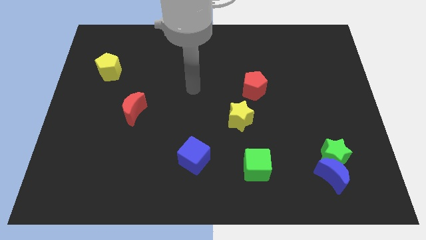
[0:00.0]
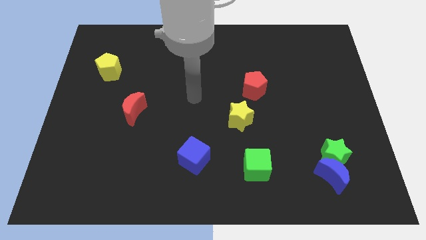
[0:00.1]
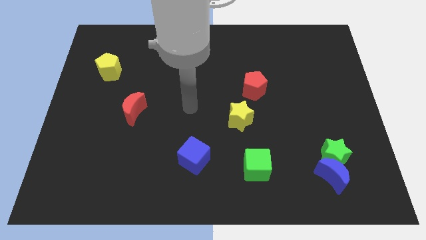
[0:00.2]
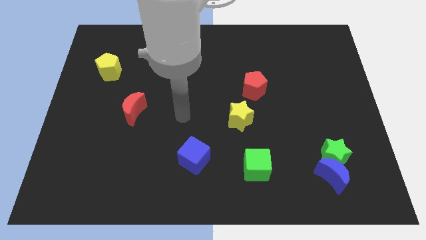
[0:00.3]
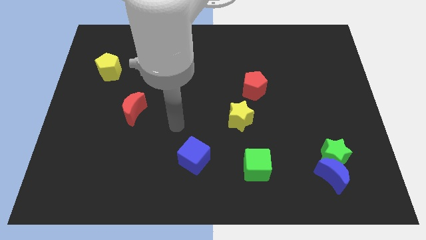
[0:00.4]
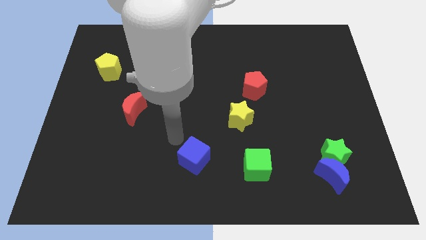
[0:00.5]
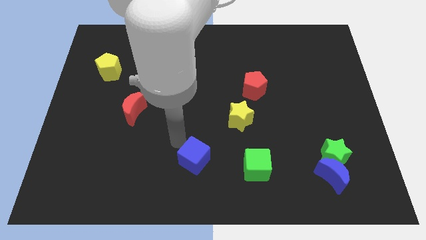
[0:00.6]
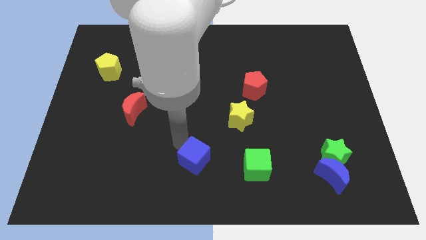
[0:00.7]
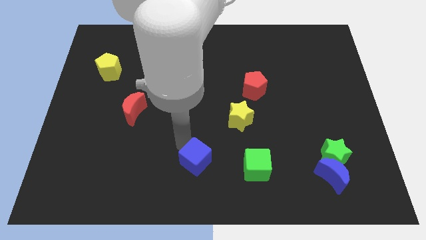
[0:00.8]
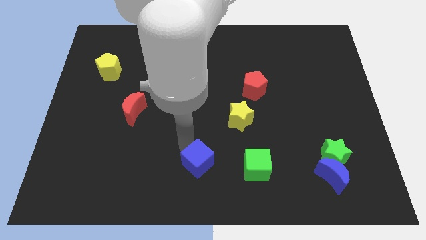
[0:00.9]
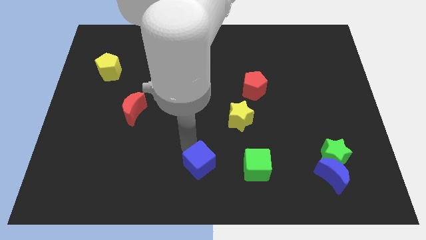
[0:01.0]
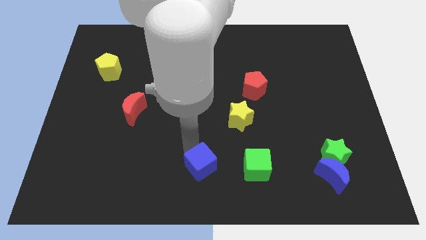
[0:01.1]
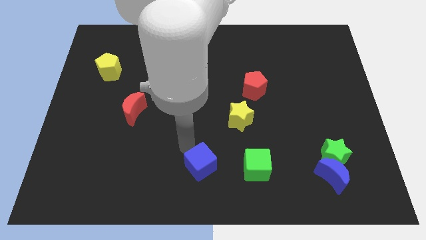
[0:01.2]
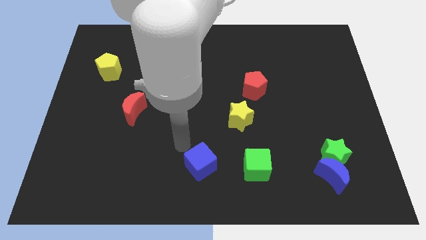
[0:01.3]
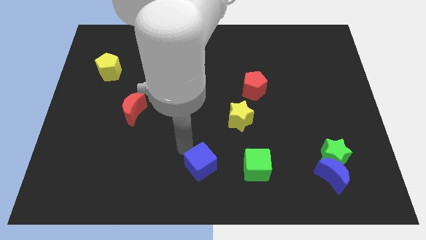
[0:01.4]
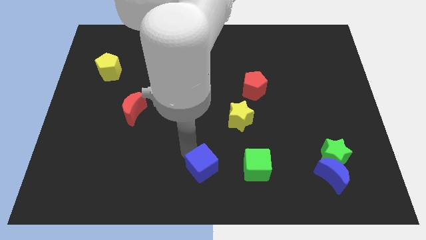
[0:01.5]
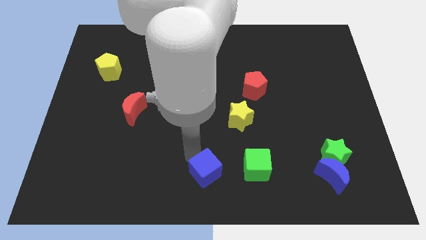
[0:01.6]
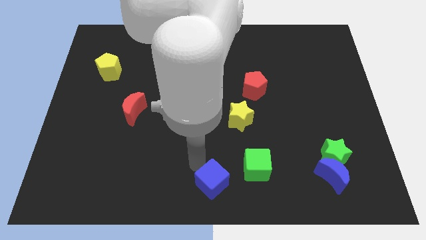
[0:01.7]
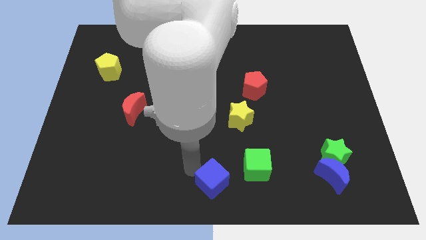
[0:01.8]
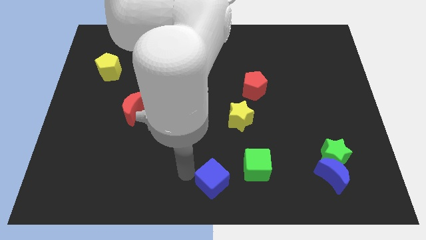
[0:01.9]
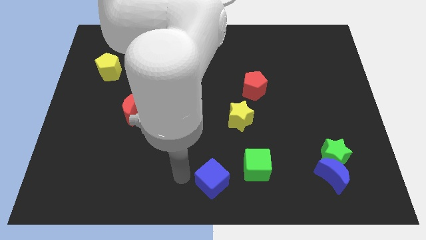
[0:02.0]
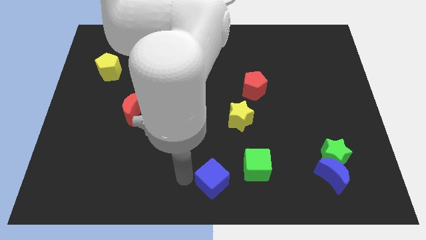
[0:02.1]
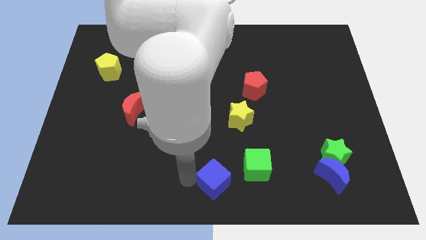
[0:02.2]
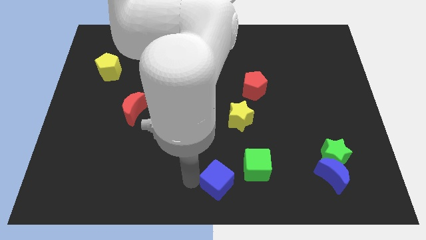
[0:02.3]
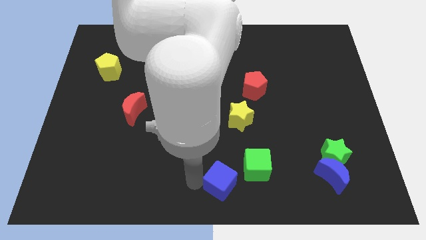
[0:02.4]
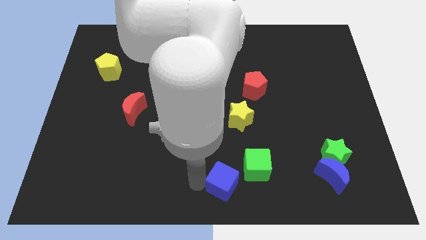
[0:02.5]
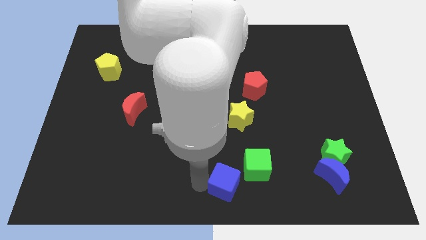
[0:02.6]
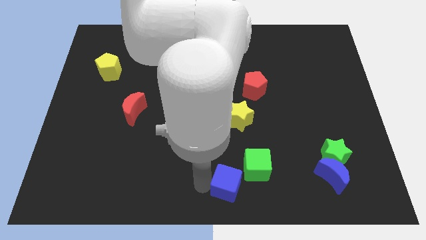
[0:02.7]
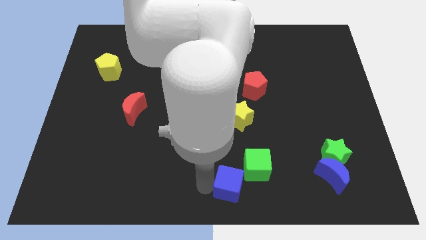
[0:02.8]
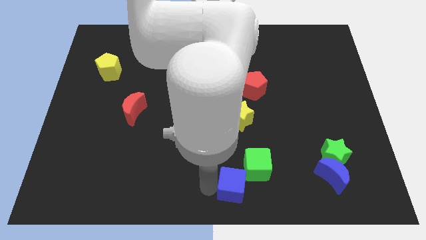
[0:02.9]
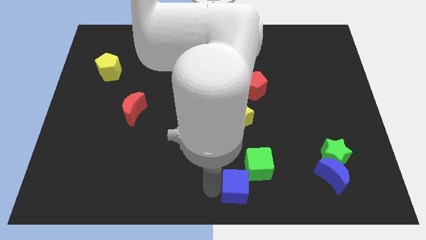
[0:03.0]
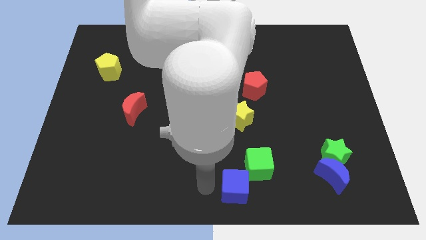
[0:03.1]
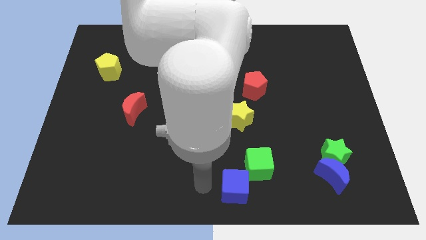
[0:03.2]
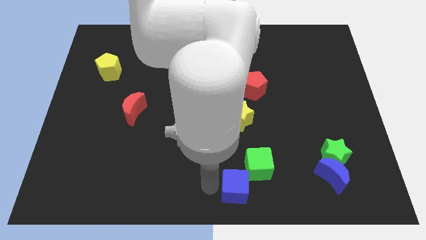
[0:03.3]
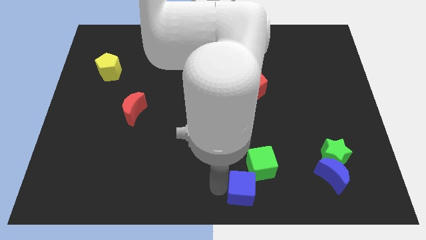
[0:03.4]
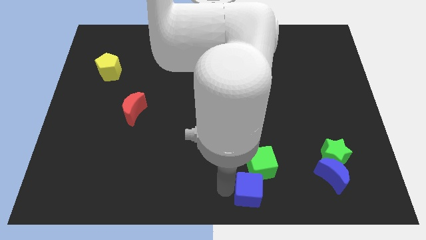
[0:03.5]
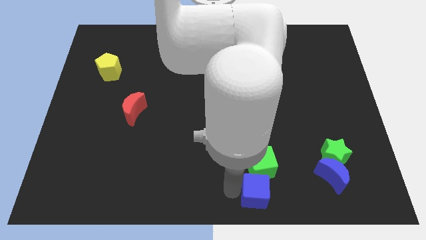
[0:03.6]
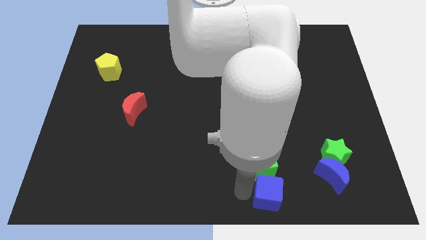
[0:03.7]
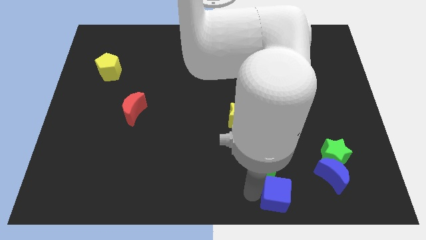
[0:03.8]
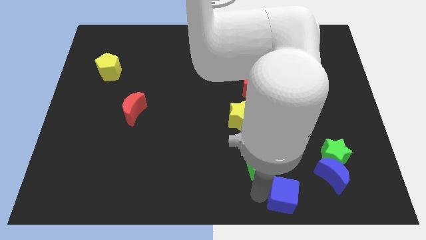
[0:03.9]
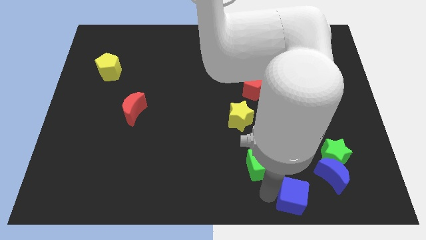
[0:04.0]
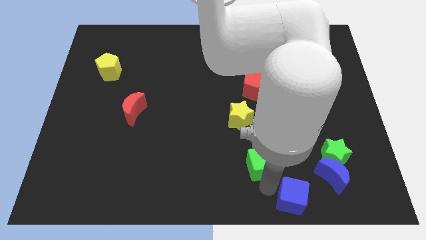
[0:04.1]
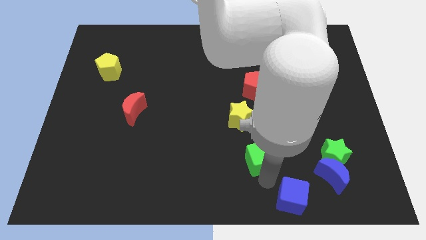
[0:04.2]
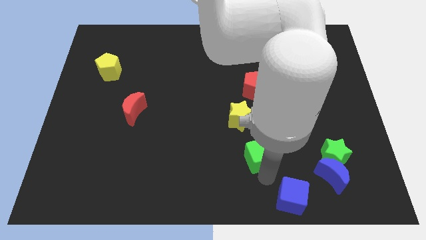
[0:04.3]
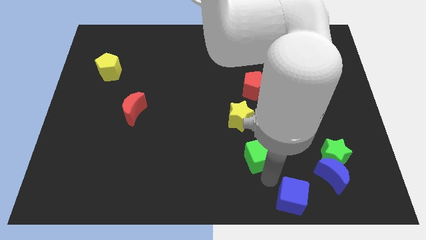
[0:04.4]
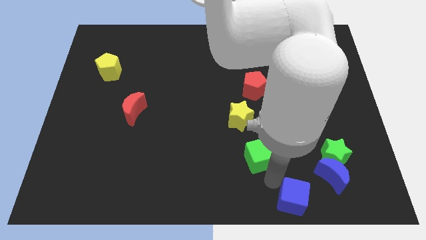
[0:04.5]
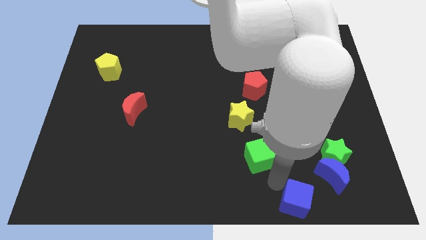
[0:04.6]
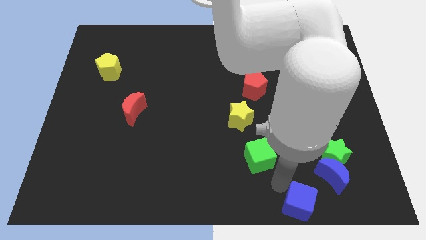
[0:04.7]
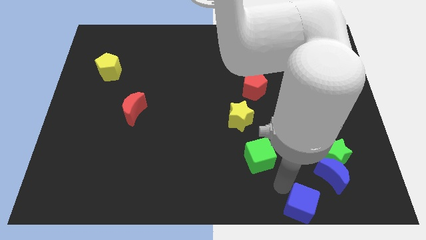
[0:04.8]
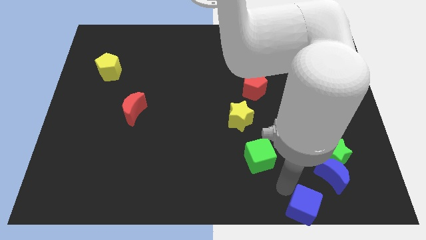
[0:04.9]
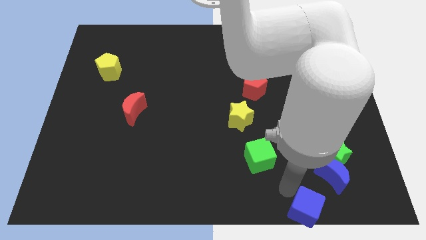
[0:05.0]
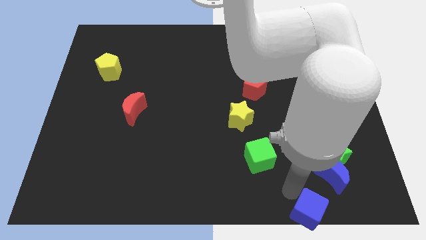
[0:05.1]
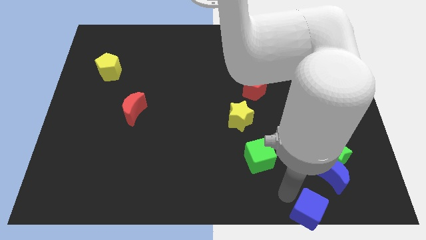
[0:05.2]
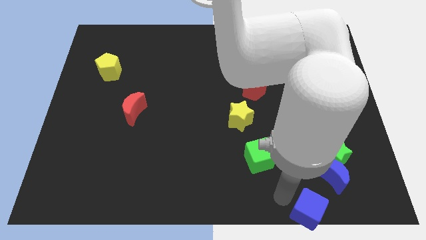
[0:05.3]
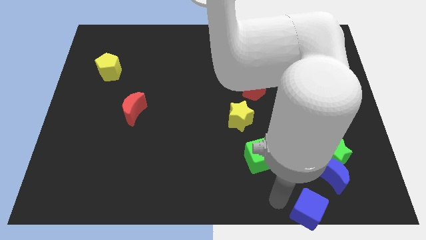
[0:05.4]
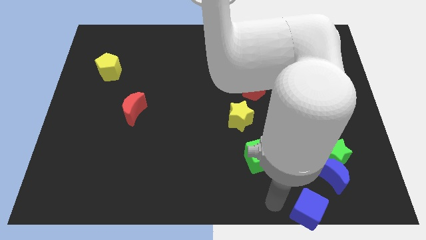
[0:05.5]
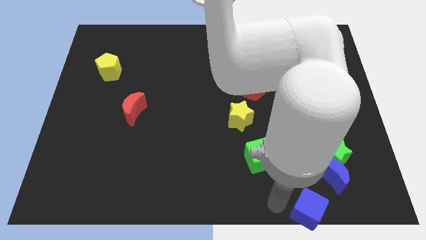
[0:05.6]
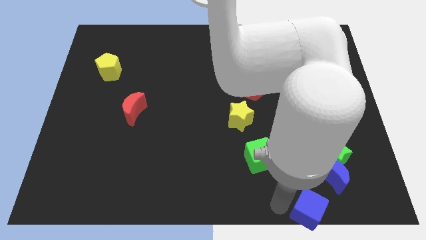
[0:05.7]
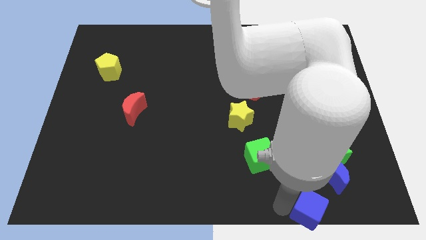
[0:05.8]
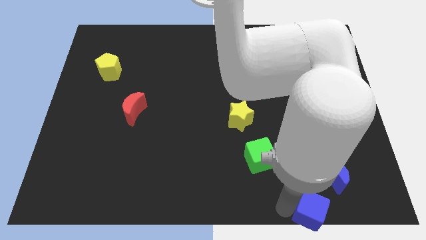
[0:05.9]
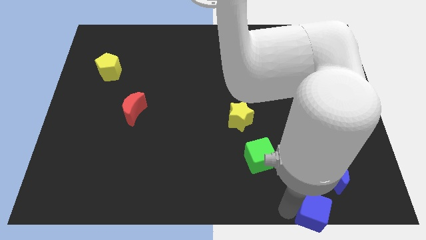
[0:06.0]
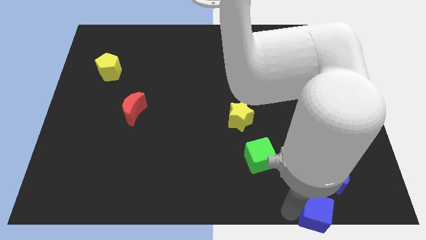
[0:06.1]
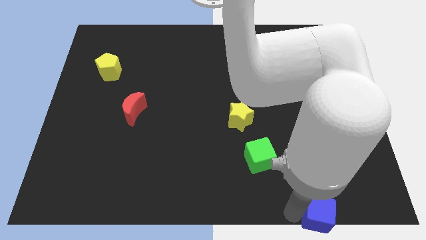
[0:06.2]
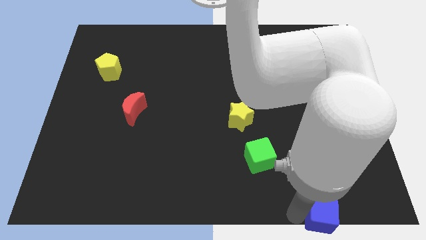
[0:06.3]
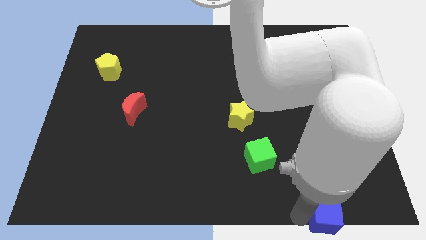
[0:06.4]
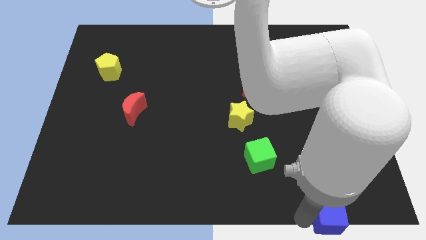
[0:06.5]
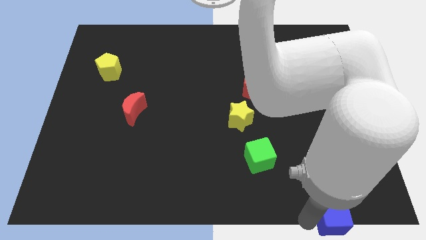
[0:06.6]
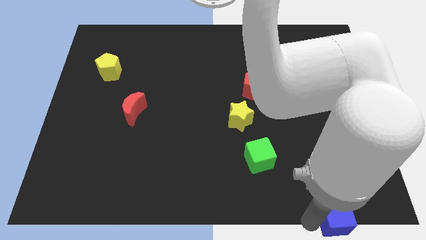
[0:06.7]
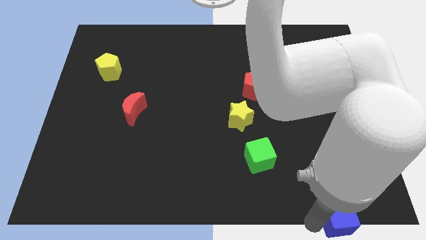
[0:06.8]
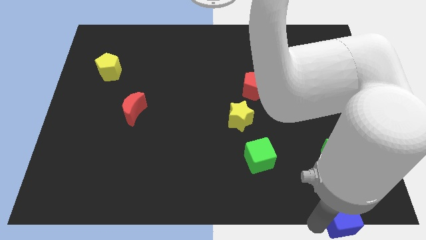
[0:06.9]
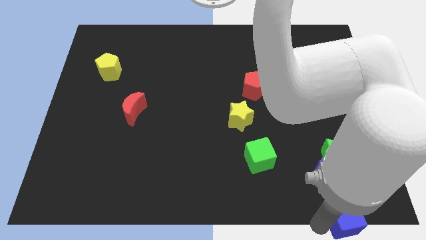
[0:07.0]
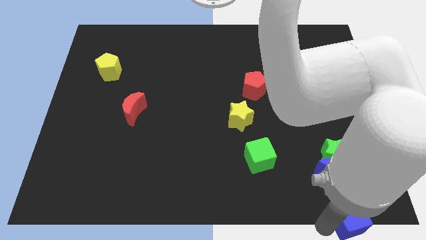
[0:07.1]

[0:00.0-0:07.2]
slide the blue cube to the bottom right of the board

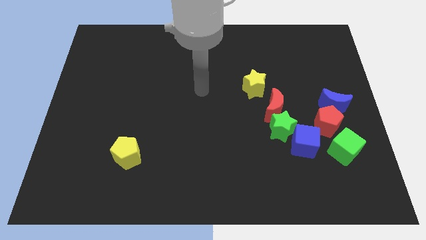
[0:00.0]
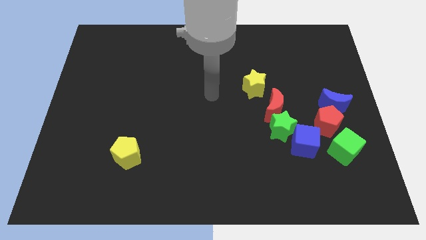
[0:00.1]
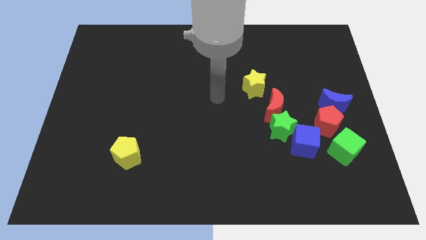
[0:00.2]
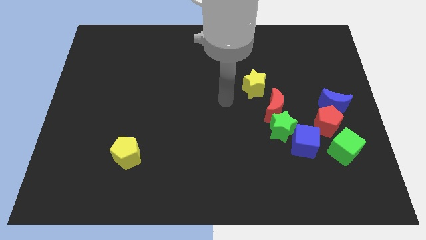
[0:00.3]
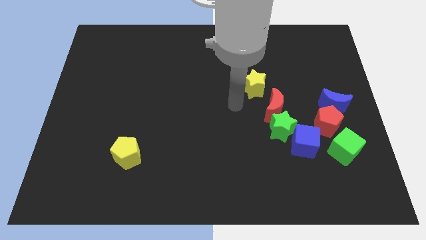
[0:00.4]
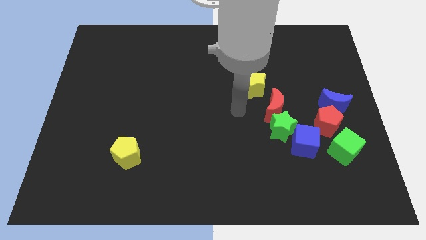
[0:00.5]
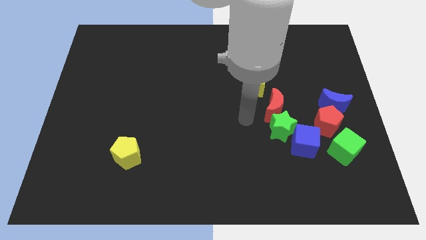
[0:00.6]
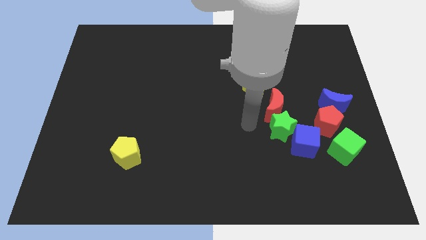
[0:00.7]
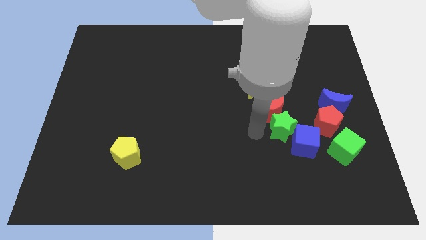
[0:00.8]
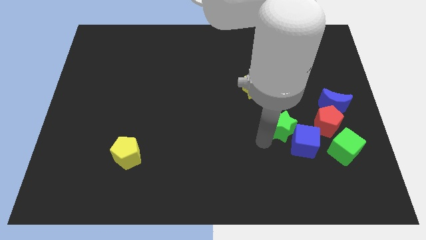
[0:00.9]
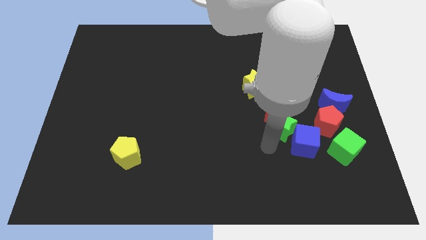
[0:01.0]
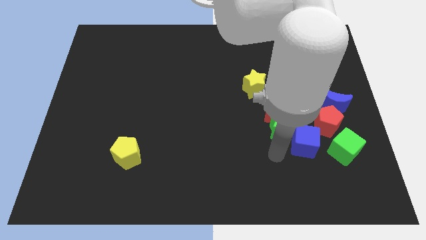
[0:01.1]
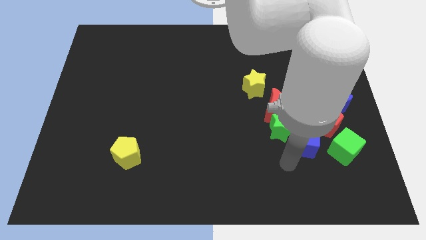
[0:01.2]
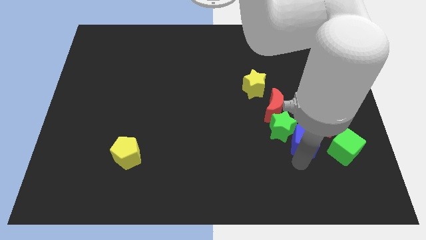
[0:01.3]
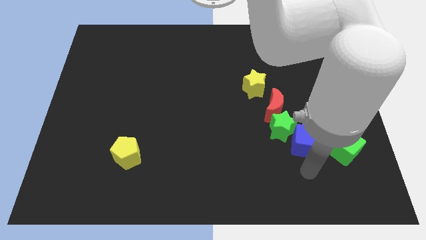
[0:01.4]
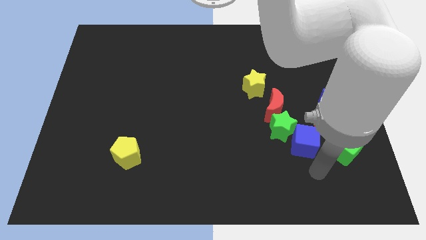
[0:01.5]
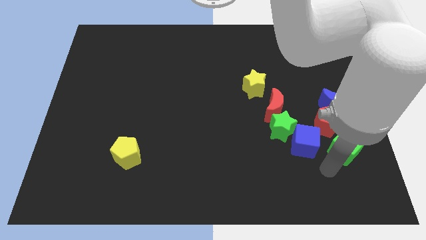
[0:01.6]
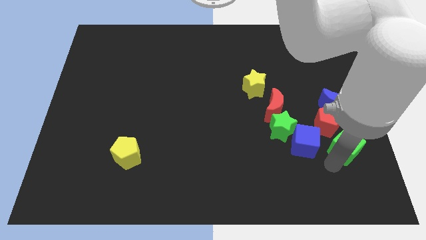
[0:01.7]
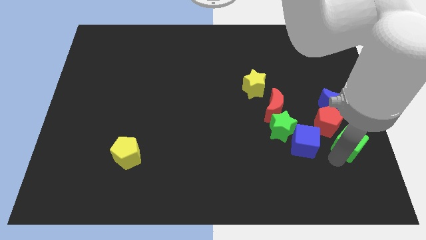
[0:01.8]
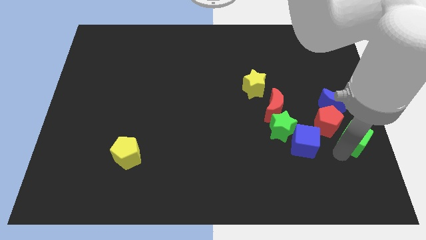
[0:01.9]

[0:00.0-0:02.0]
push the green cube to the right side
